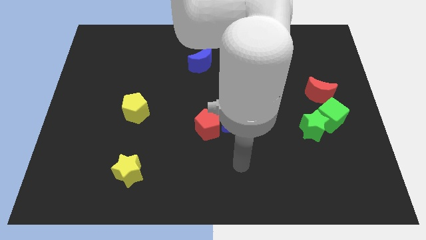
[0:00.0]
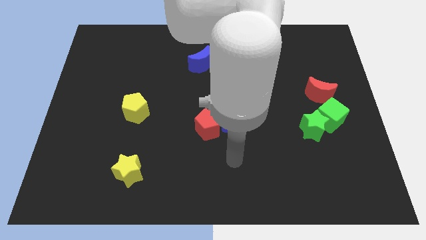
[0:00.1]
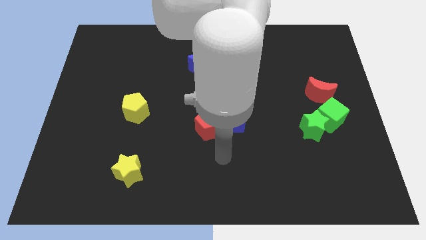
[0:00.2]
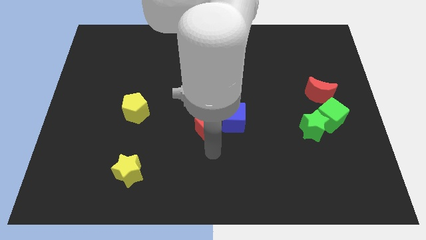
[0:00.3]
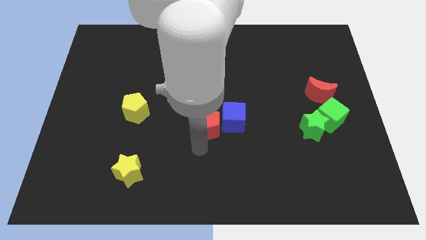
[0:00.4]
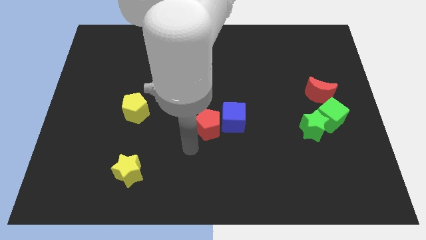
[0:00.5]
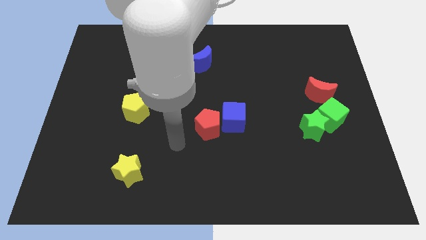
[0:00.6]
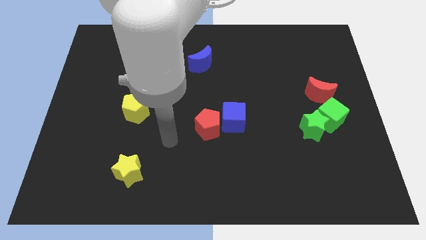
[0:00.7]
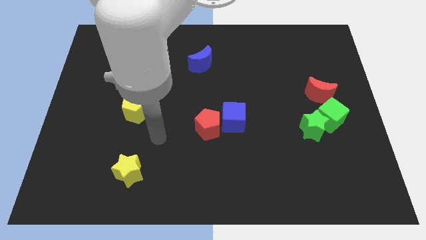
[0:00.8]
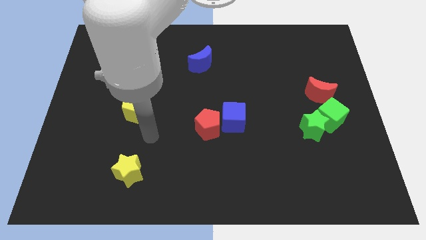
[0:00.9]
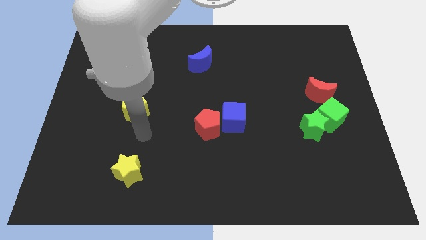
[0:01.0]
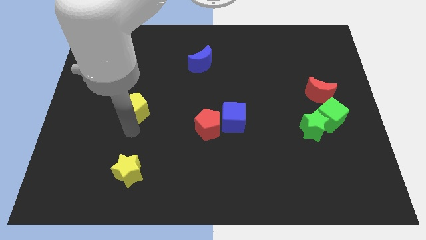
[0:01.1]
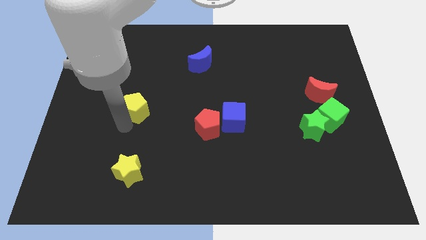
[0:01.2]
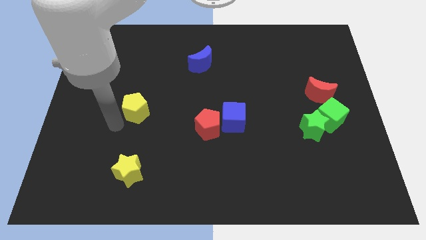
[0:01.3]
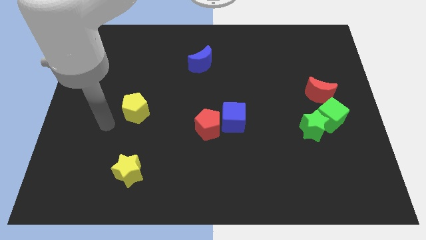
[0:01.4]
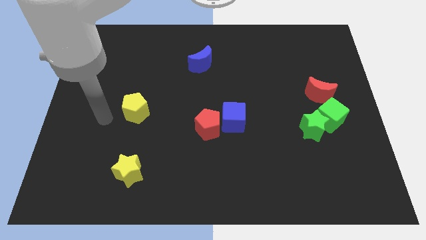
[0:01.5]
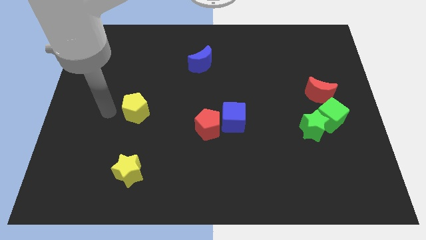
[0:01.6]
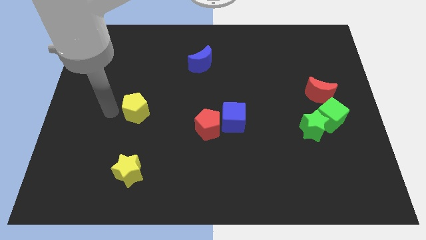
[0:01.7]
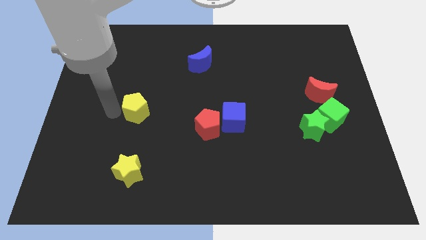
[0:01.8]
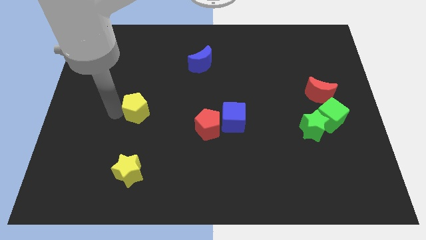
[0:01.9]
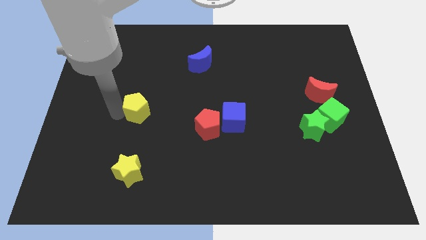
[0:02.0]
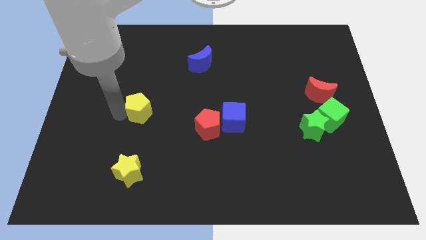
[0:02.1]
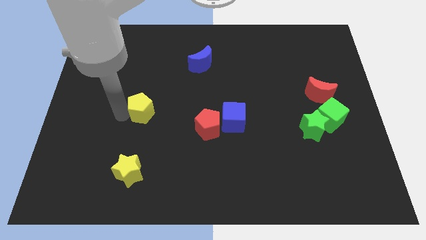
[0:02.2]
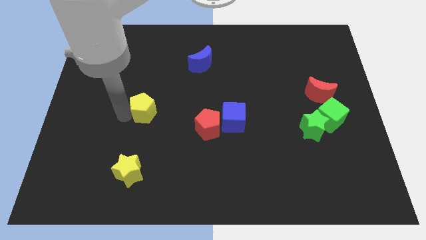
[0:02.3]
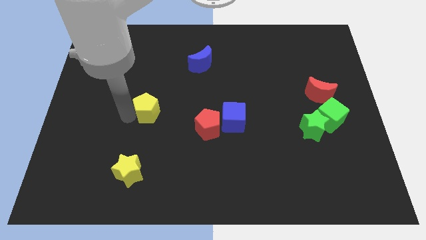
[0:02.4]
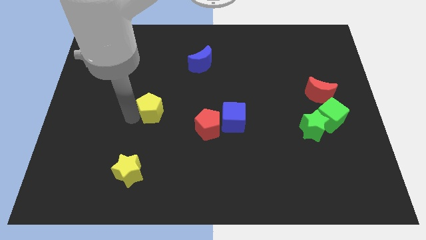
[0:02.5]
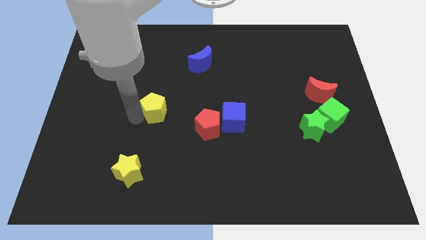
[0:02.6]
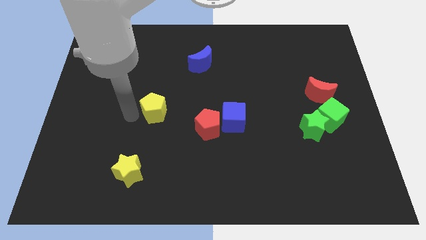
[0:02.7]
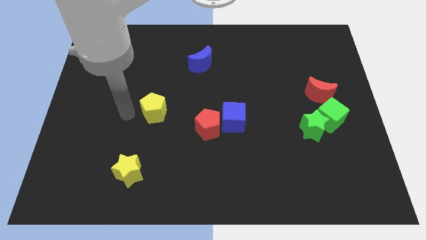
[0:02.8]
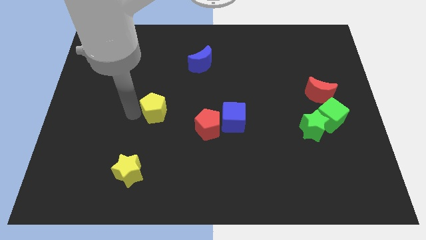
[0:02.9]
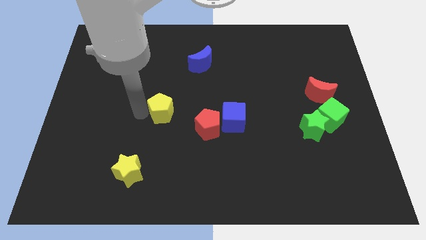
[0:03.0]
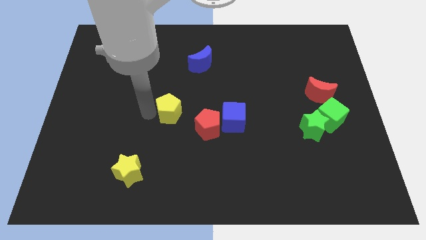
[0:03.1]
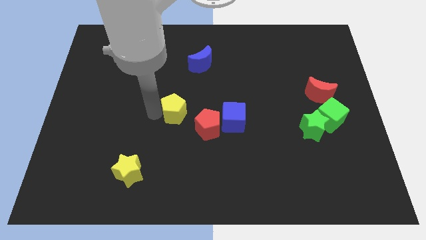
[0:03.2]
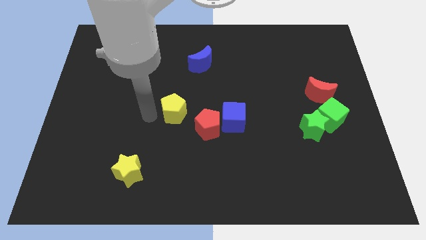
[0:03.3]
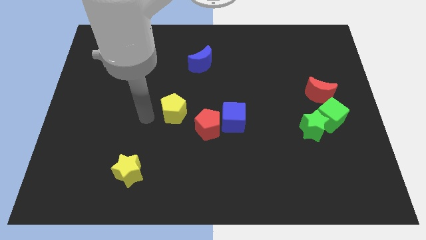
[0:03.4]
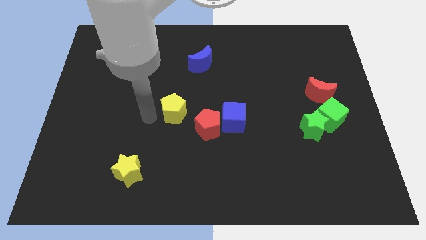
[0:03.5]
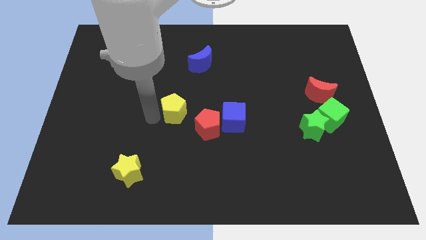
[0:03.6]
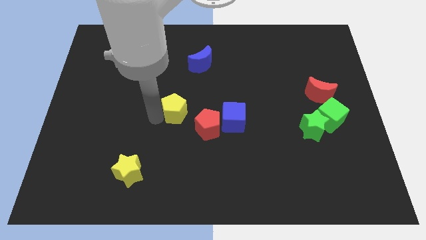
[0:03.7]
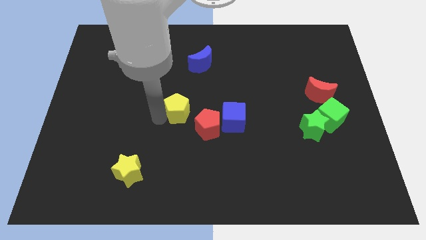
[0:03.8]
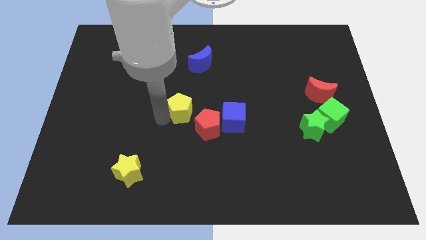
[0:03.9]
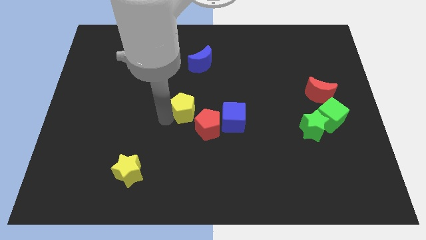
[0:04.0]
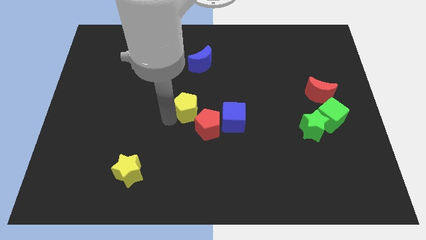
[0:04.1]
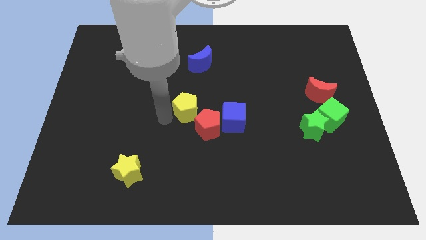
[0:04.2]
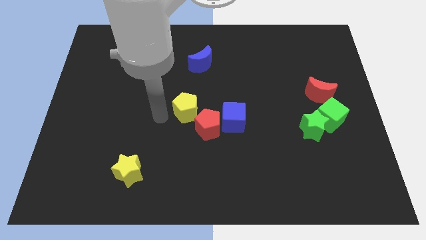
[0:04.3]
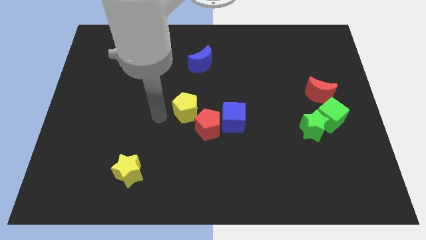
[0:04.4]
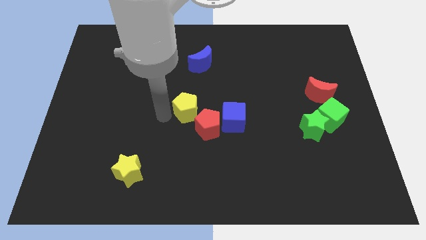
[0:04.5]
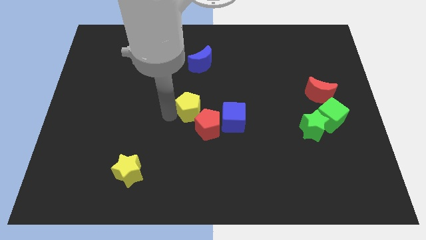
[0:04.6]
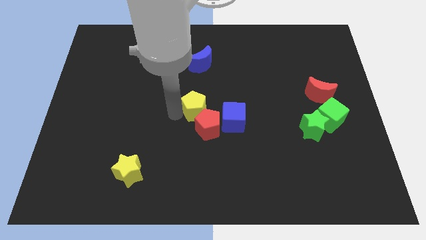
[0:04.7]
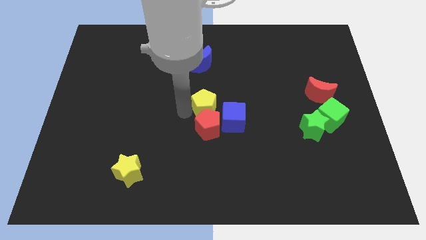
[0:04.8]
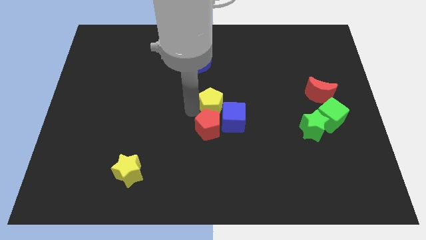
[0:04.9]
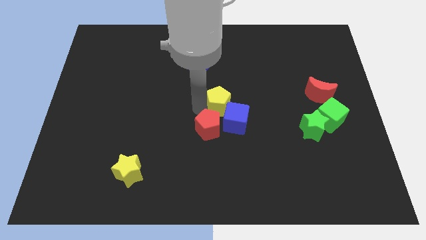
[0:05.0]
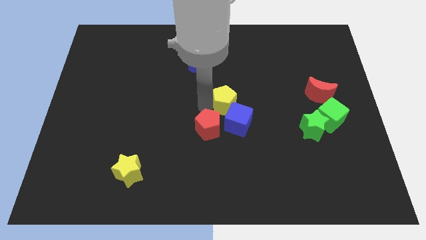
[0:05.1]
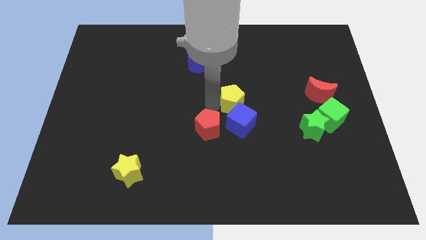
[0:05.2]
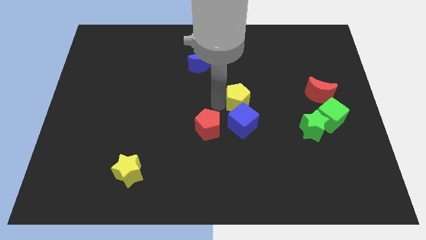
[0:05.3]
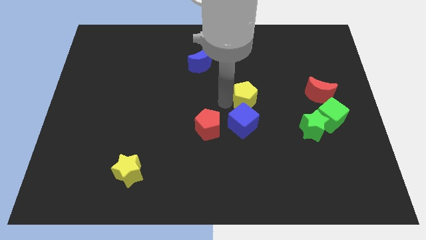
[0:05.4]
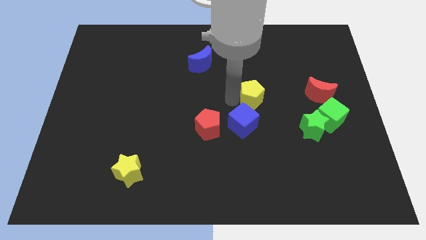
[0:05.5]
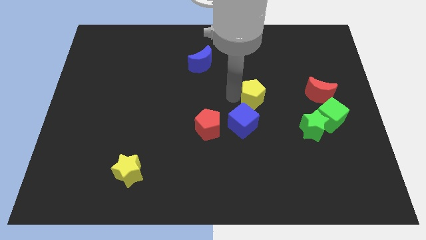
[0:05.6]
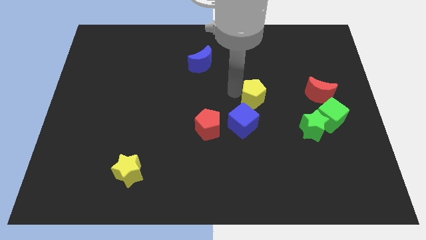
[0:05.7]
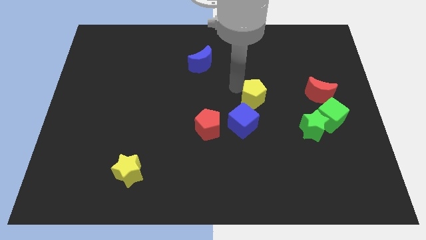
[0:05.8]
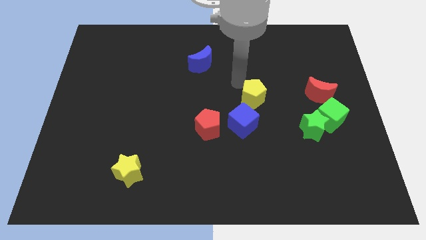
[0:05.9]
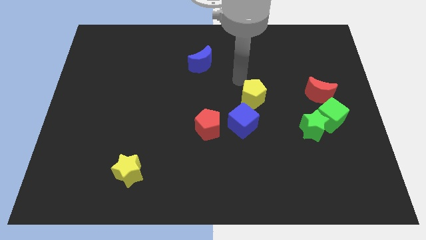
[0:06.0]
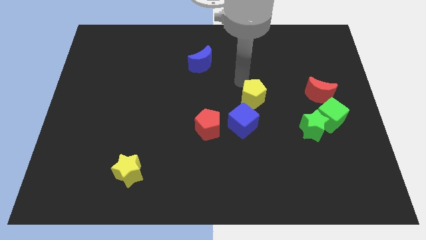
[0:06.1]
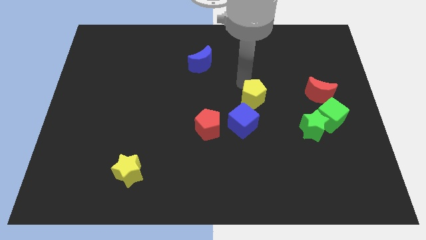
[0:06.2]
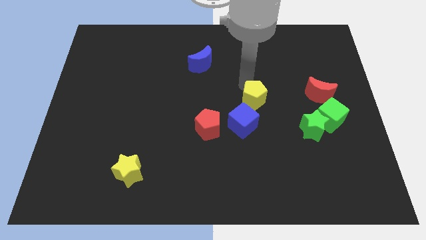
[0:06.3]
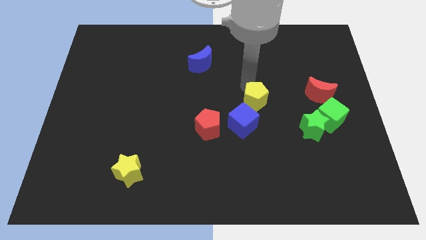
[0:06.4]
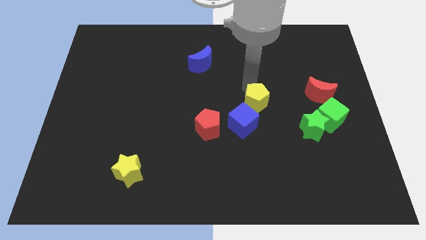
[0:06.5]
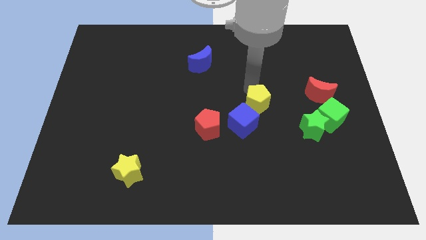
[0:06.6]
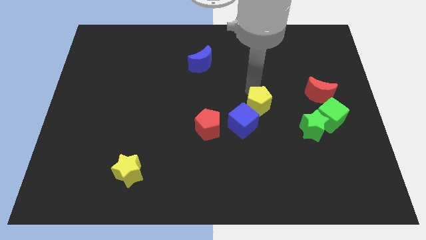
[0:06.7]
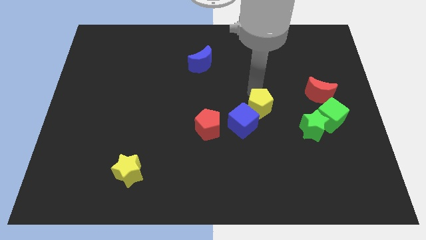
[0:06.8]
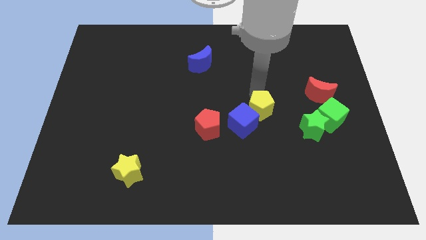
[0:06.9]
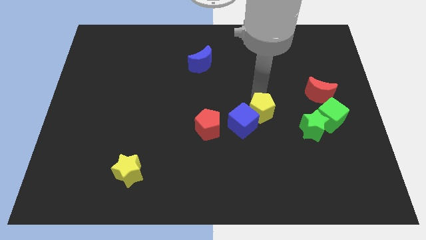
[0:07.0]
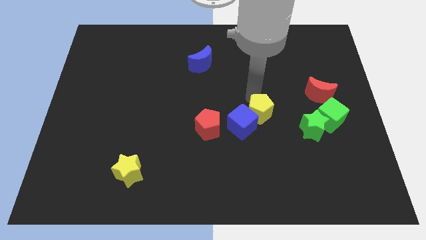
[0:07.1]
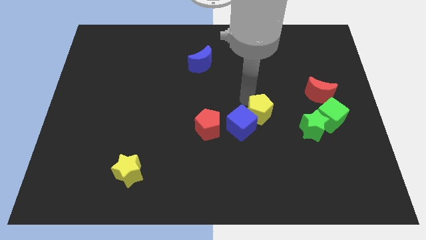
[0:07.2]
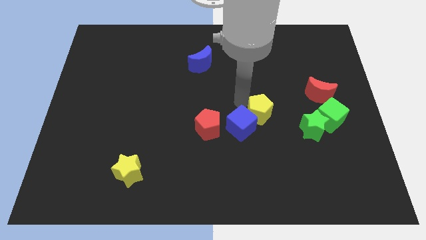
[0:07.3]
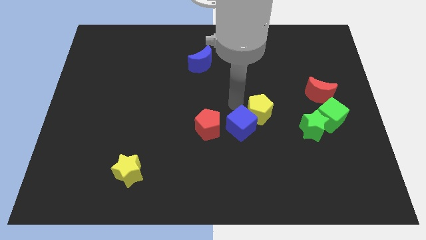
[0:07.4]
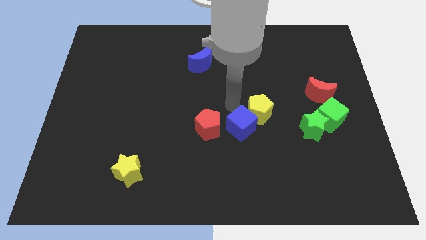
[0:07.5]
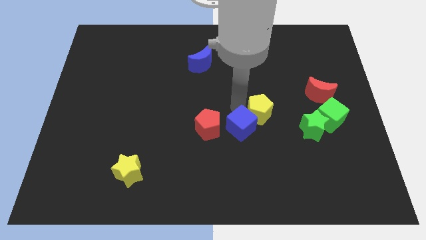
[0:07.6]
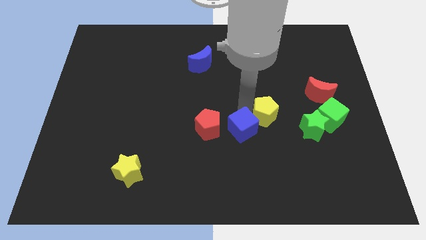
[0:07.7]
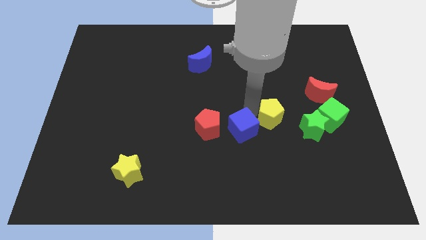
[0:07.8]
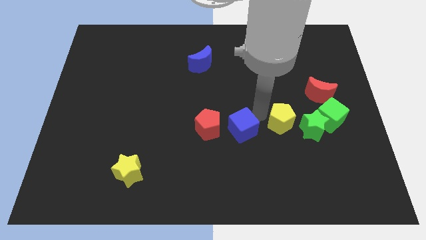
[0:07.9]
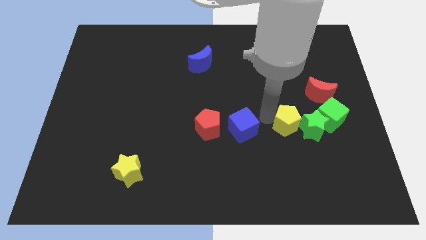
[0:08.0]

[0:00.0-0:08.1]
slide the yellow pentagon towards the green star
